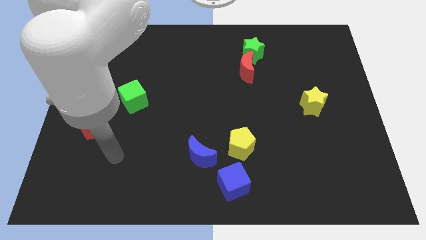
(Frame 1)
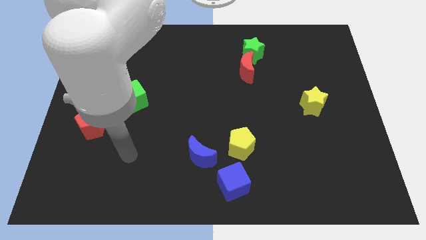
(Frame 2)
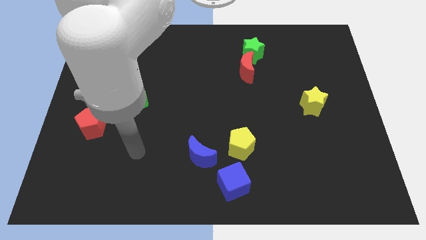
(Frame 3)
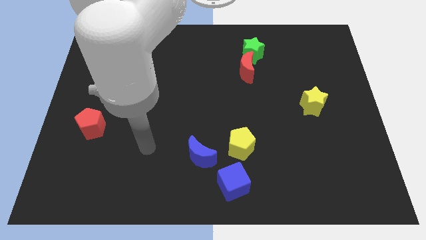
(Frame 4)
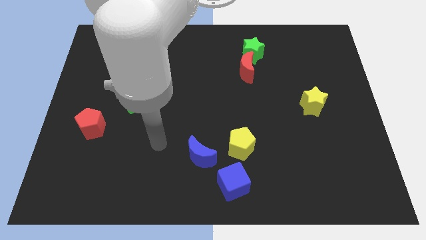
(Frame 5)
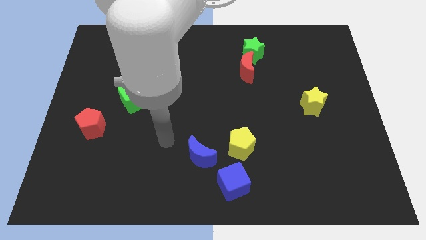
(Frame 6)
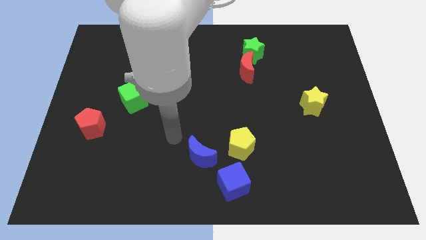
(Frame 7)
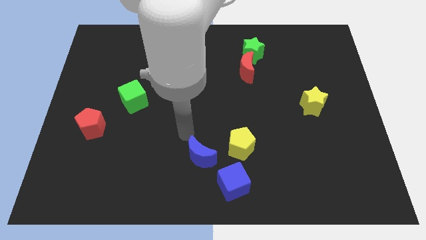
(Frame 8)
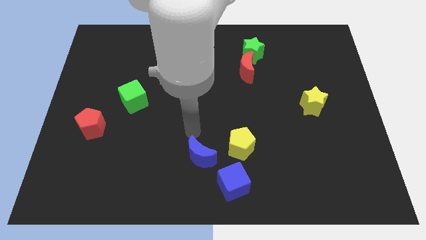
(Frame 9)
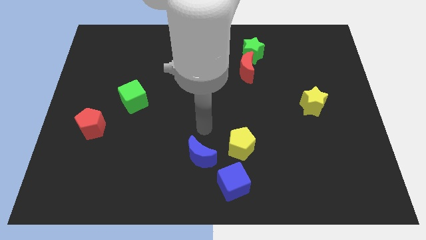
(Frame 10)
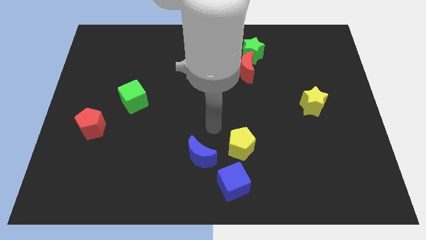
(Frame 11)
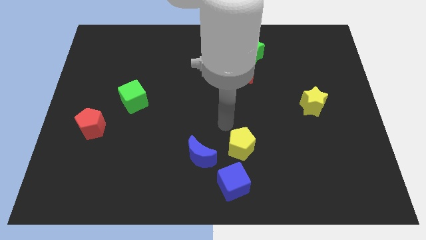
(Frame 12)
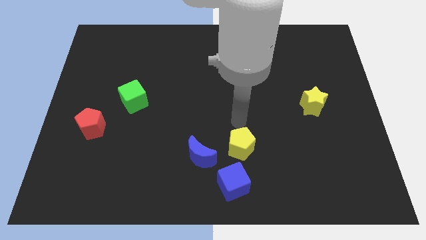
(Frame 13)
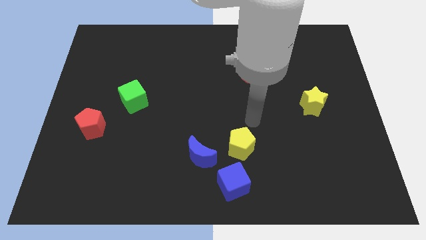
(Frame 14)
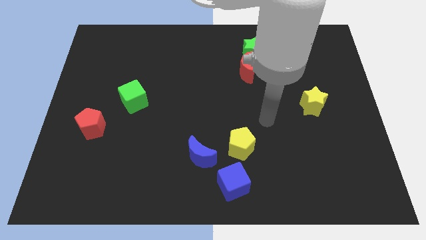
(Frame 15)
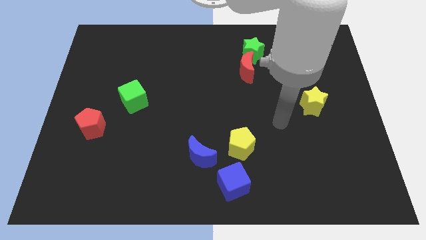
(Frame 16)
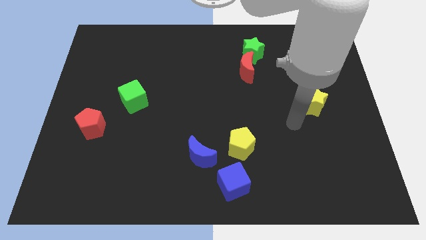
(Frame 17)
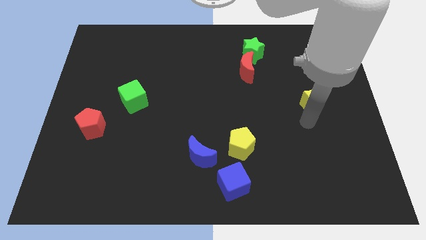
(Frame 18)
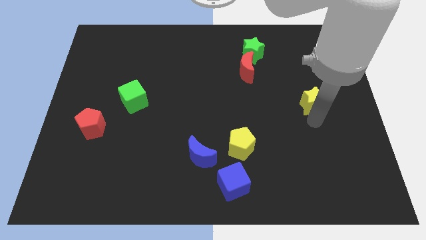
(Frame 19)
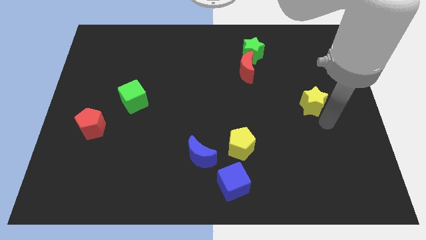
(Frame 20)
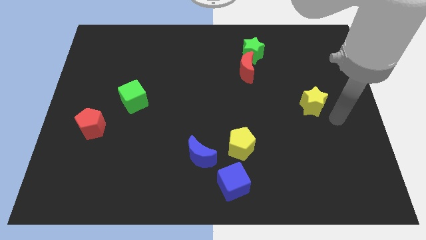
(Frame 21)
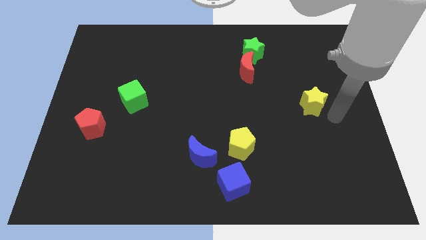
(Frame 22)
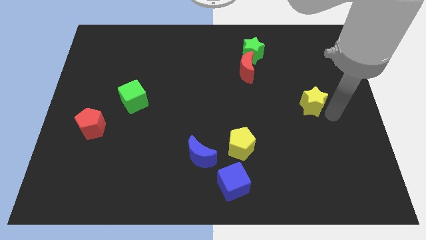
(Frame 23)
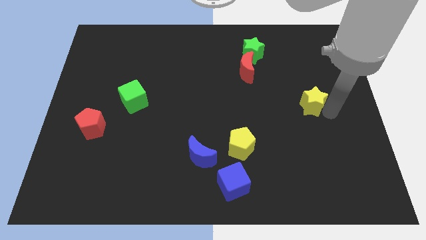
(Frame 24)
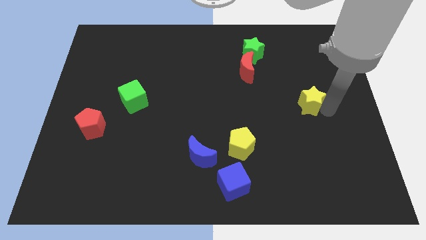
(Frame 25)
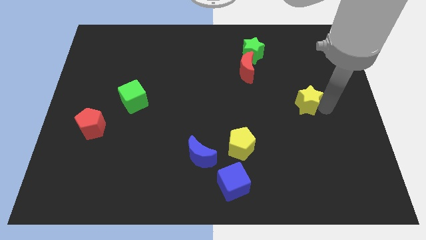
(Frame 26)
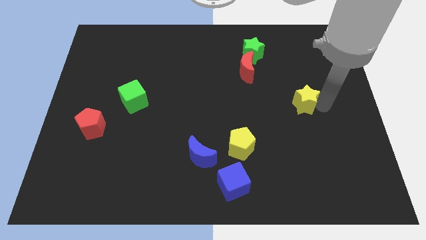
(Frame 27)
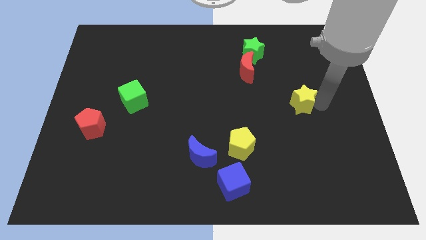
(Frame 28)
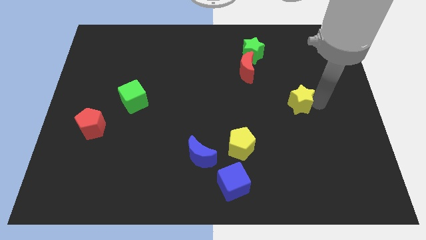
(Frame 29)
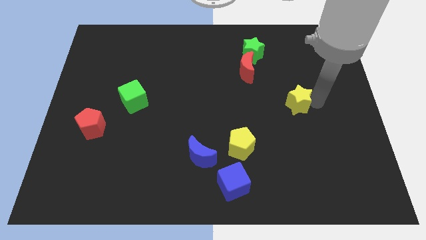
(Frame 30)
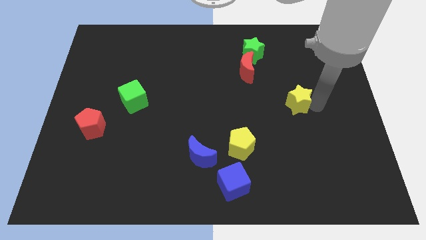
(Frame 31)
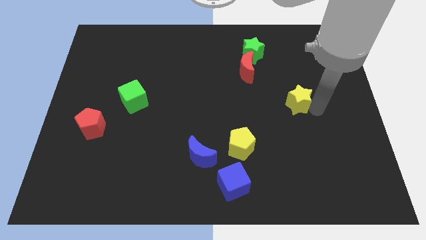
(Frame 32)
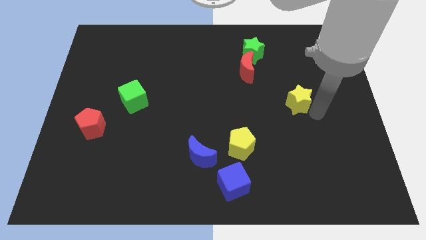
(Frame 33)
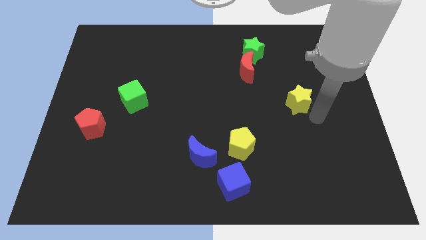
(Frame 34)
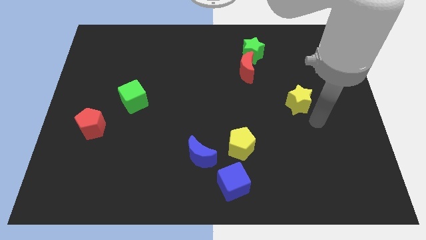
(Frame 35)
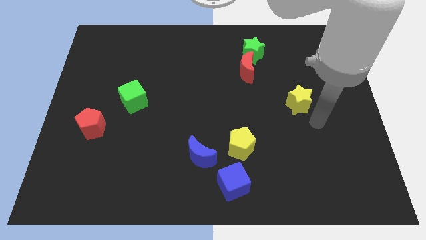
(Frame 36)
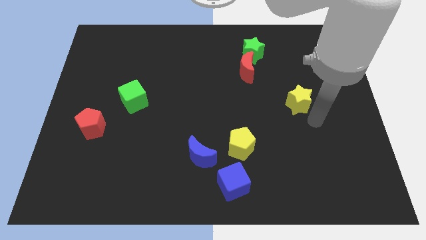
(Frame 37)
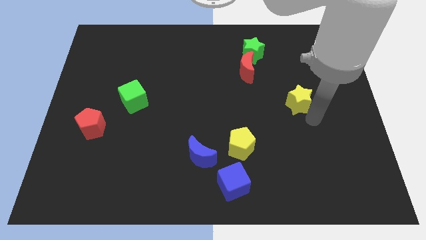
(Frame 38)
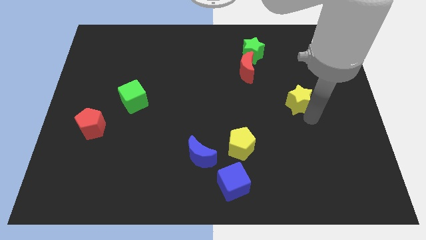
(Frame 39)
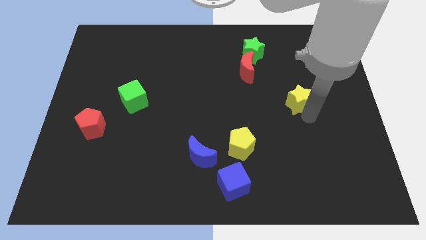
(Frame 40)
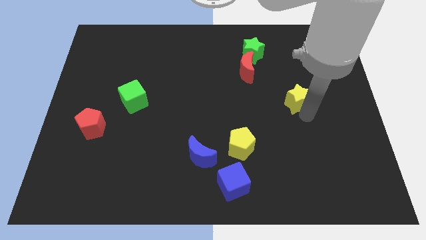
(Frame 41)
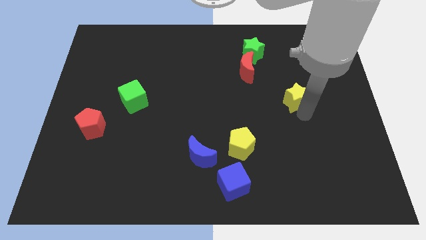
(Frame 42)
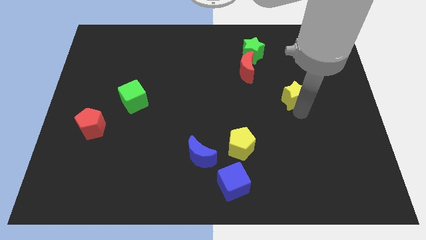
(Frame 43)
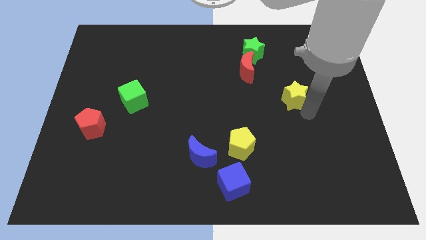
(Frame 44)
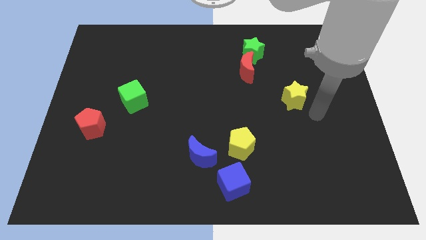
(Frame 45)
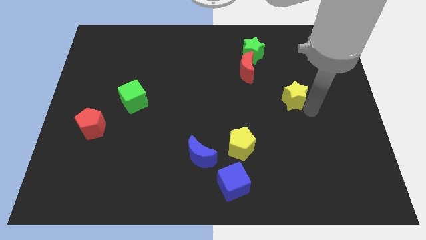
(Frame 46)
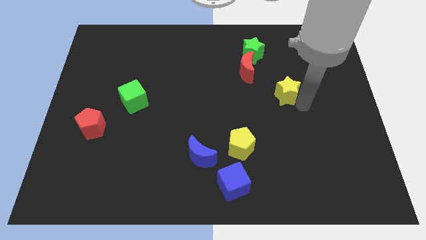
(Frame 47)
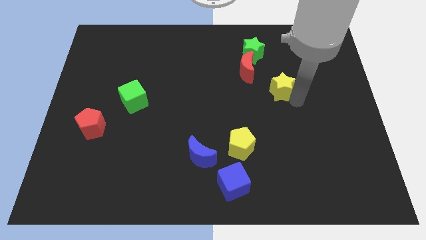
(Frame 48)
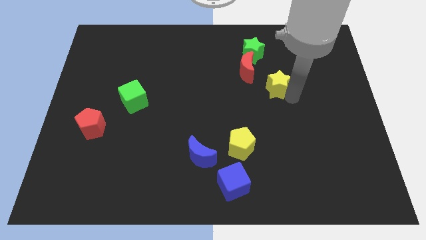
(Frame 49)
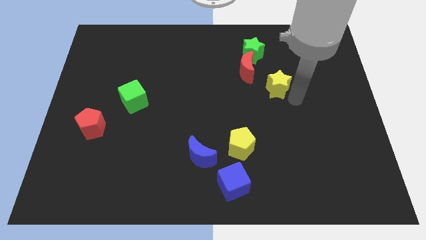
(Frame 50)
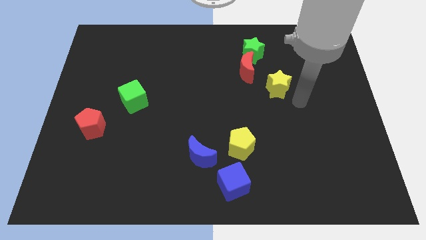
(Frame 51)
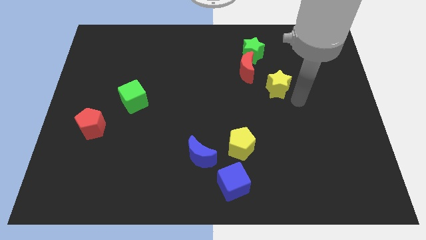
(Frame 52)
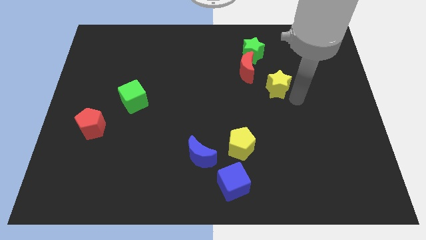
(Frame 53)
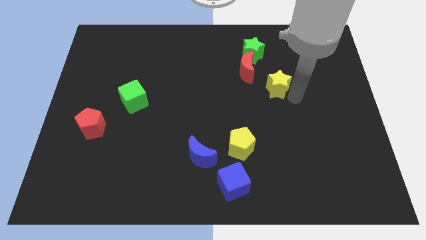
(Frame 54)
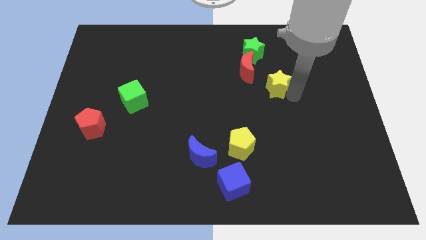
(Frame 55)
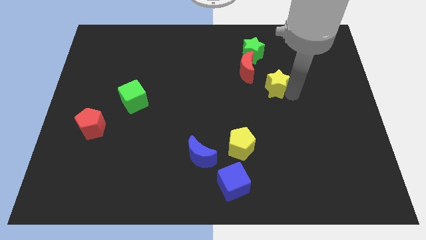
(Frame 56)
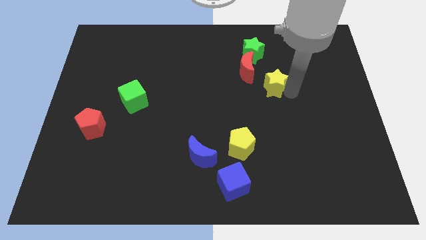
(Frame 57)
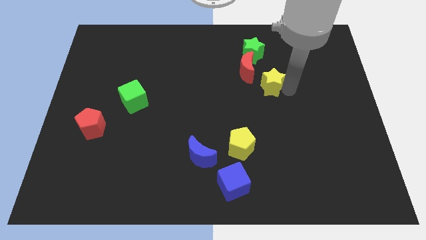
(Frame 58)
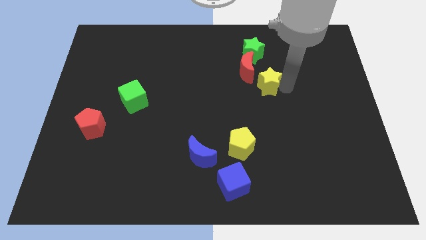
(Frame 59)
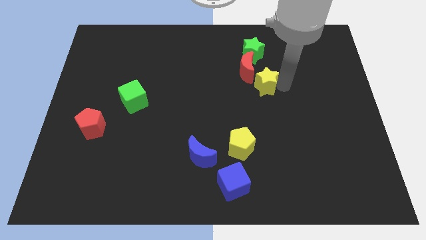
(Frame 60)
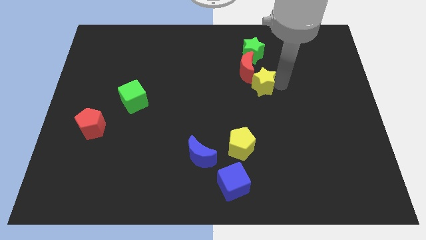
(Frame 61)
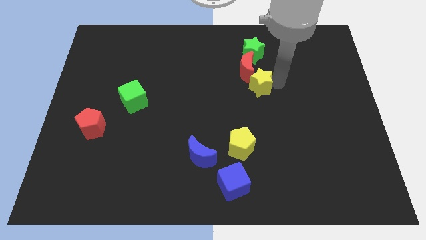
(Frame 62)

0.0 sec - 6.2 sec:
put the yellow star next to the red moon

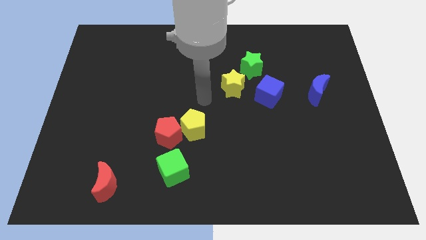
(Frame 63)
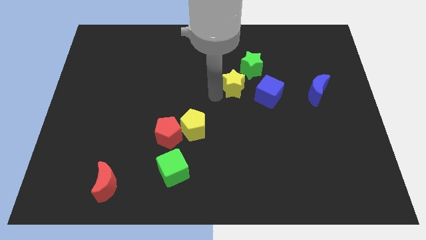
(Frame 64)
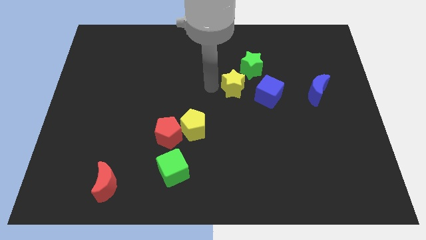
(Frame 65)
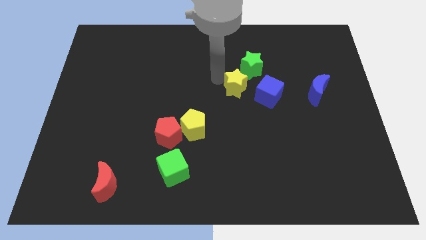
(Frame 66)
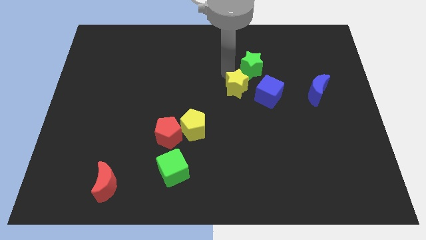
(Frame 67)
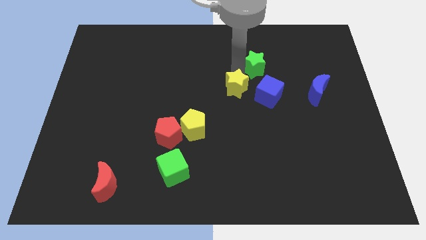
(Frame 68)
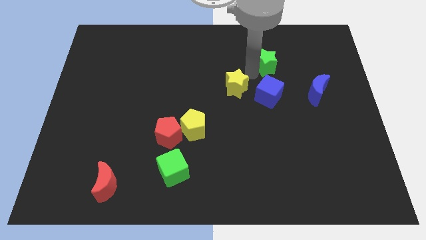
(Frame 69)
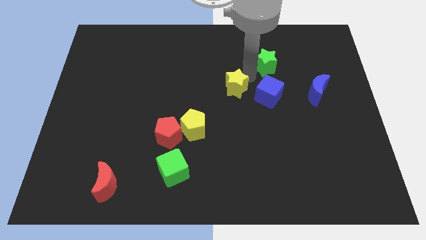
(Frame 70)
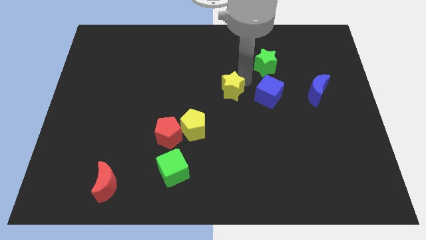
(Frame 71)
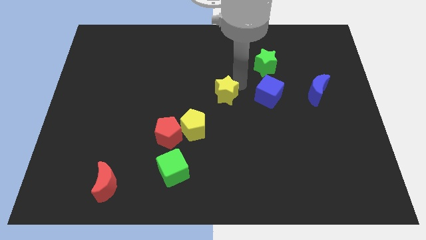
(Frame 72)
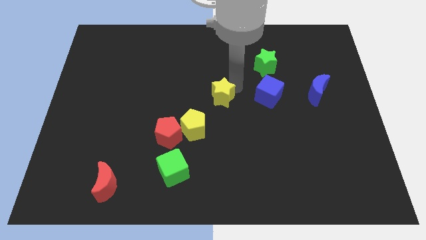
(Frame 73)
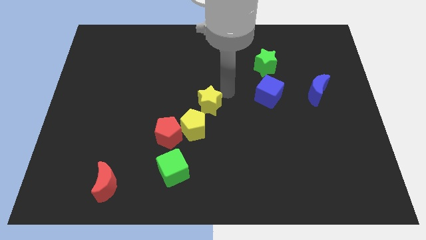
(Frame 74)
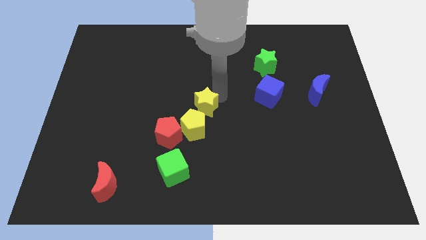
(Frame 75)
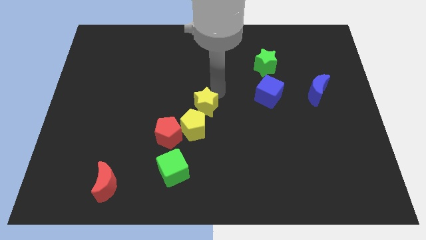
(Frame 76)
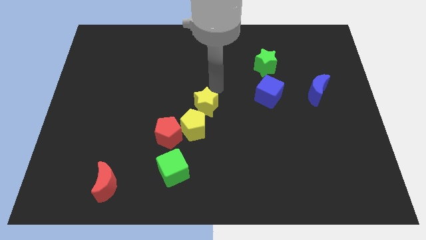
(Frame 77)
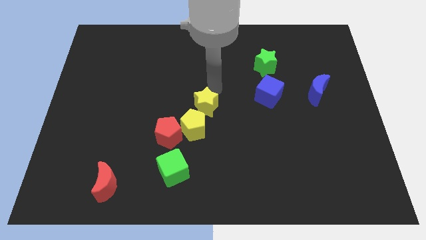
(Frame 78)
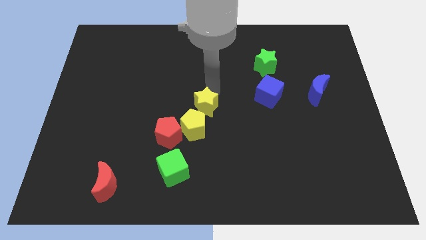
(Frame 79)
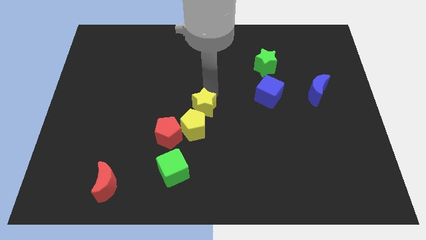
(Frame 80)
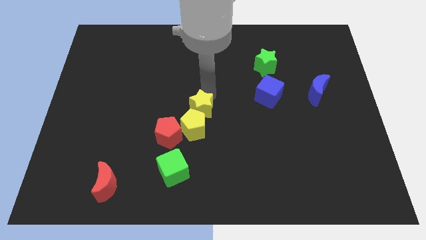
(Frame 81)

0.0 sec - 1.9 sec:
push the yellow star to the yellow pentagon
